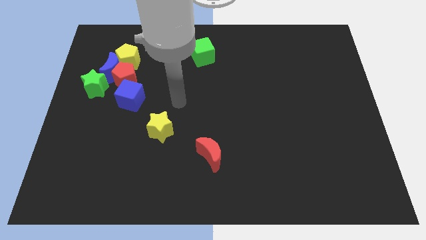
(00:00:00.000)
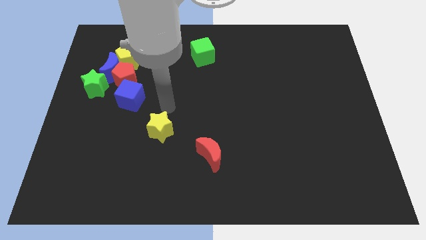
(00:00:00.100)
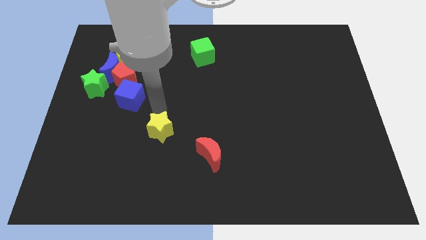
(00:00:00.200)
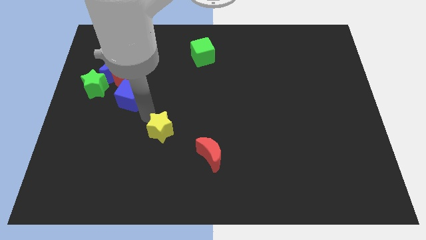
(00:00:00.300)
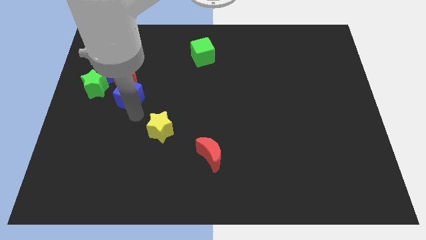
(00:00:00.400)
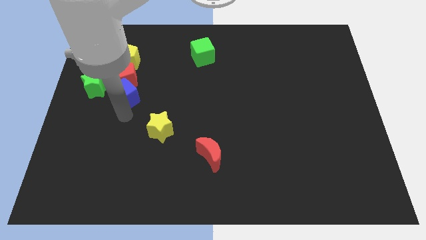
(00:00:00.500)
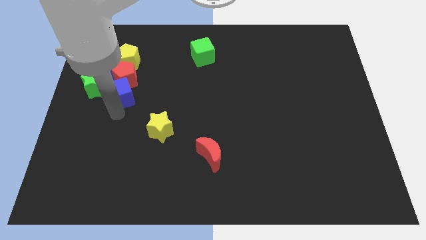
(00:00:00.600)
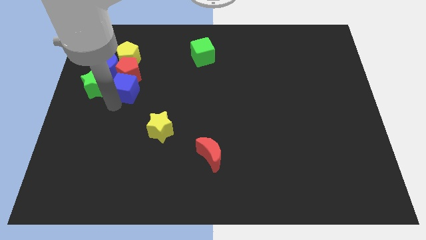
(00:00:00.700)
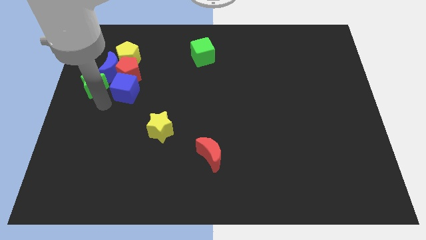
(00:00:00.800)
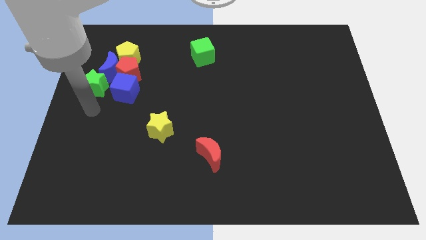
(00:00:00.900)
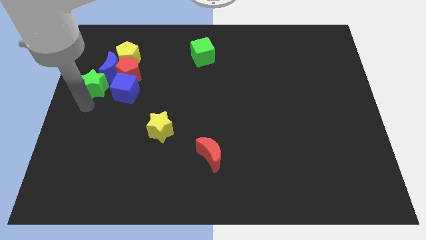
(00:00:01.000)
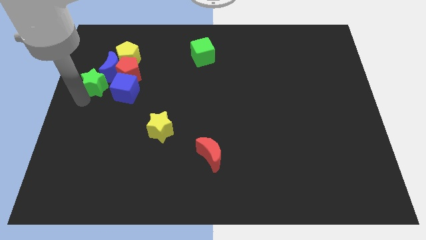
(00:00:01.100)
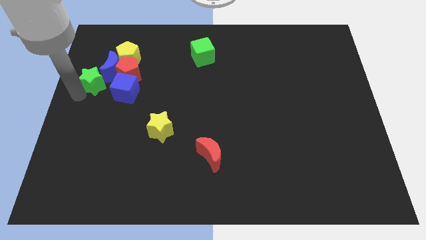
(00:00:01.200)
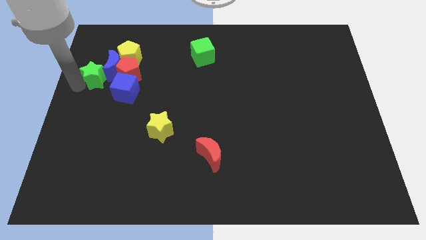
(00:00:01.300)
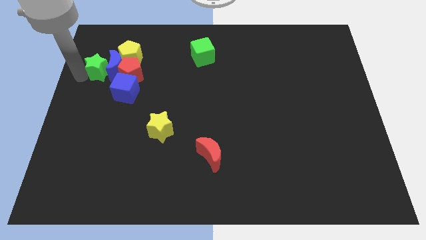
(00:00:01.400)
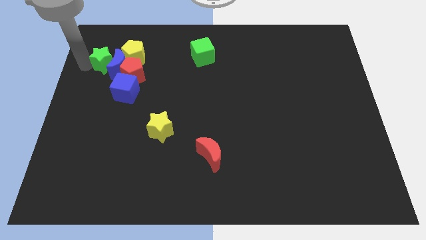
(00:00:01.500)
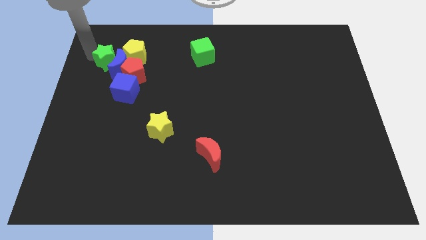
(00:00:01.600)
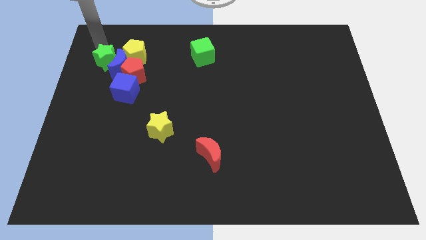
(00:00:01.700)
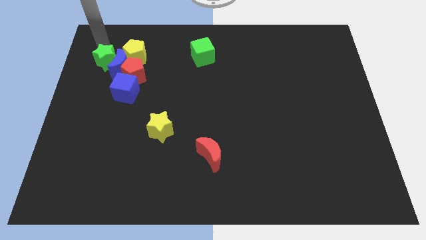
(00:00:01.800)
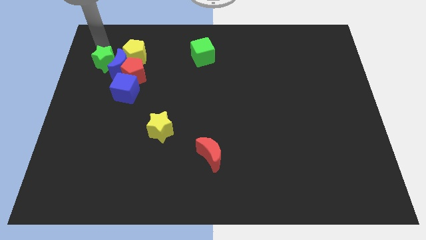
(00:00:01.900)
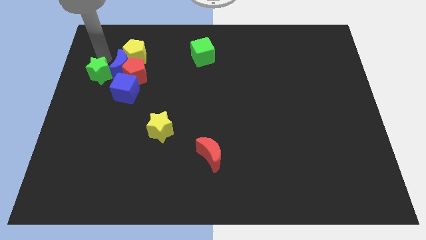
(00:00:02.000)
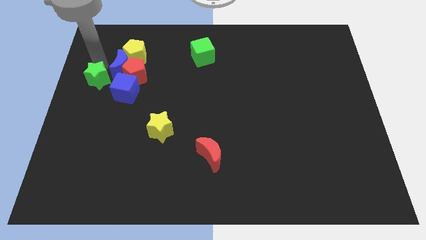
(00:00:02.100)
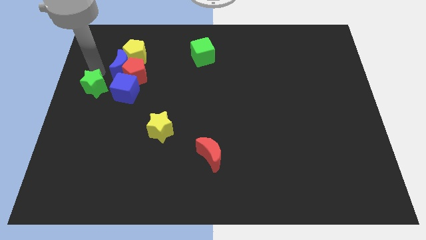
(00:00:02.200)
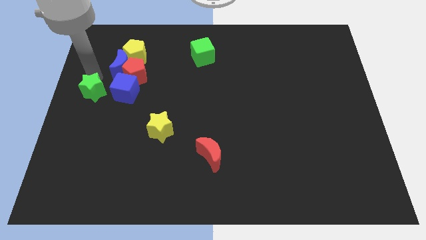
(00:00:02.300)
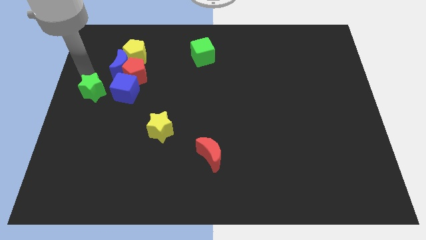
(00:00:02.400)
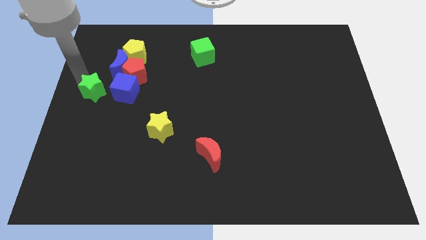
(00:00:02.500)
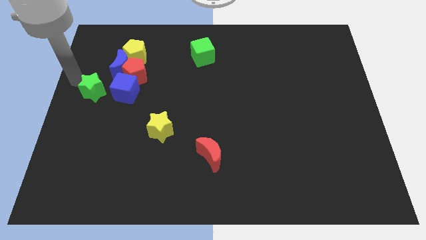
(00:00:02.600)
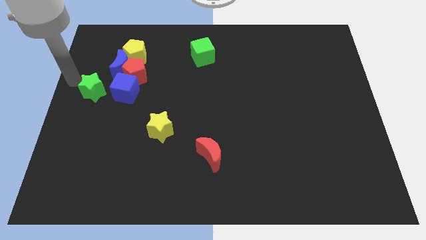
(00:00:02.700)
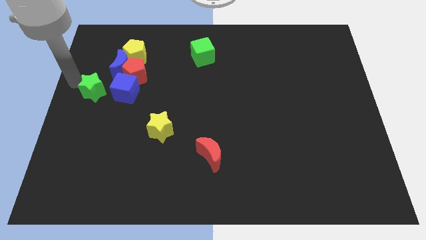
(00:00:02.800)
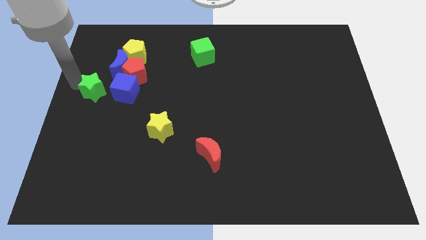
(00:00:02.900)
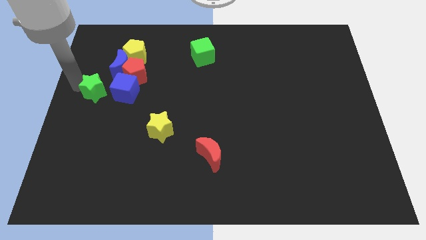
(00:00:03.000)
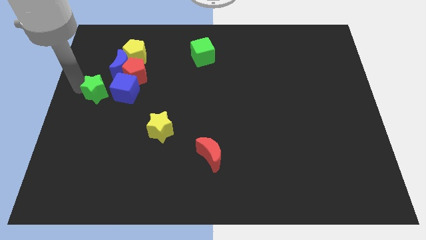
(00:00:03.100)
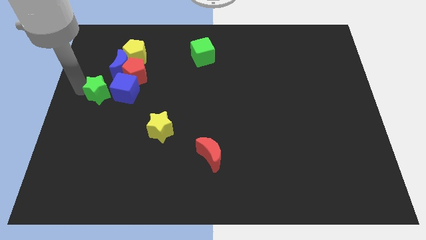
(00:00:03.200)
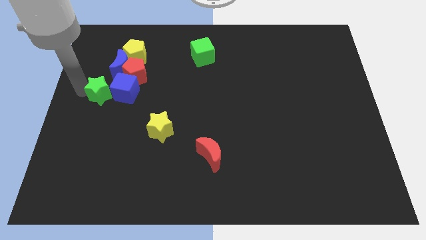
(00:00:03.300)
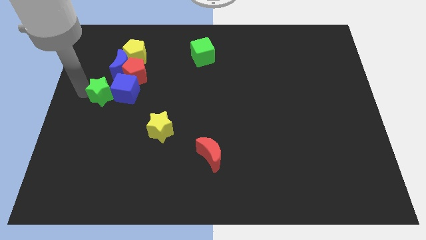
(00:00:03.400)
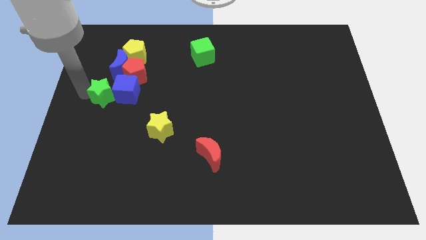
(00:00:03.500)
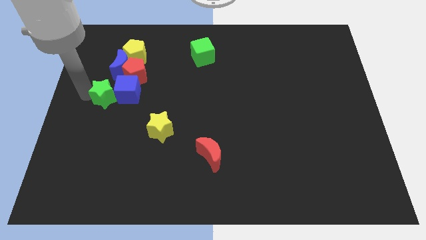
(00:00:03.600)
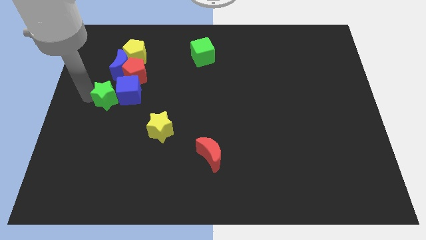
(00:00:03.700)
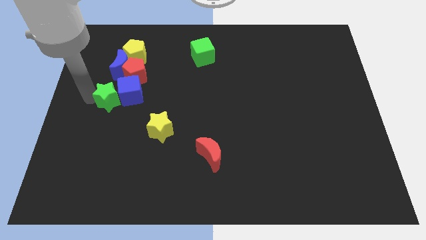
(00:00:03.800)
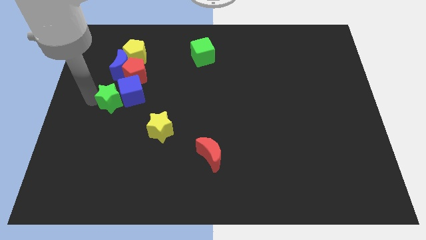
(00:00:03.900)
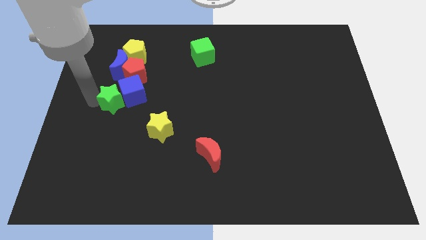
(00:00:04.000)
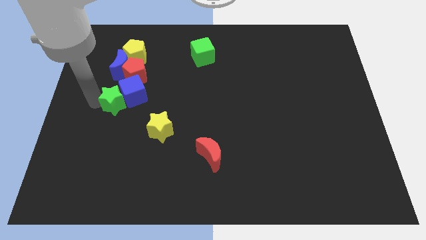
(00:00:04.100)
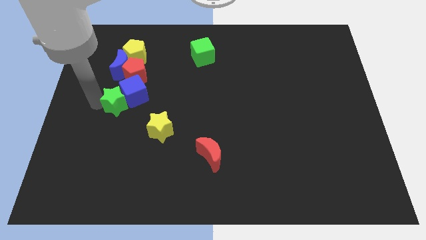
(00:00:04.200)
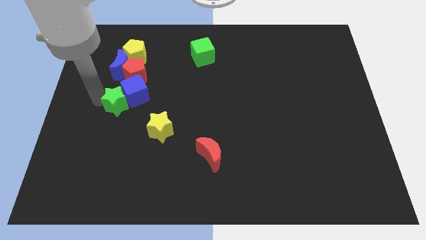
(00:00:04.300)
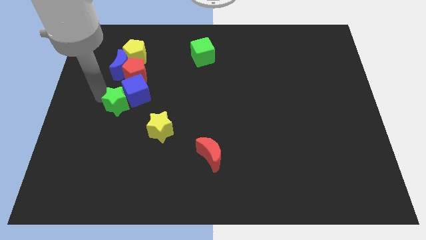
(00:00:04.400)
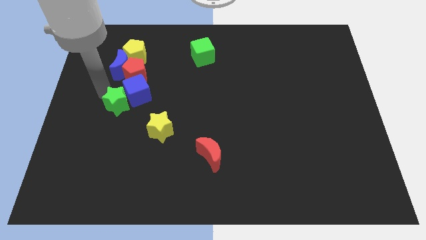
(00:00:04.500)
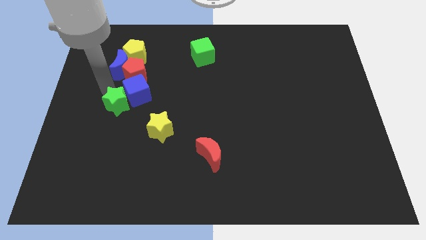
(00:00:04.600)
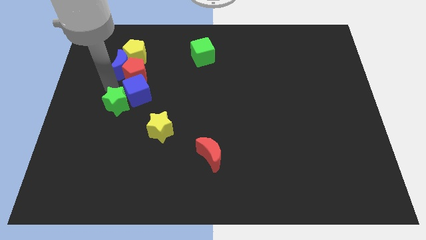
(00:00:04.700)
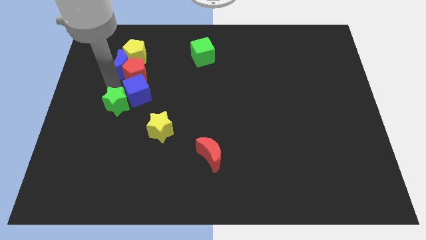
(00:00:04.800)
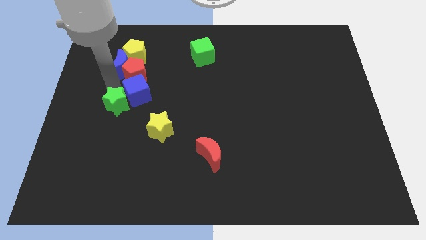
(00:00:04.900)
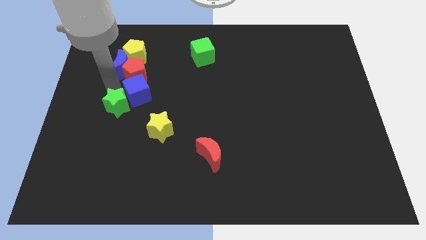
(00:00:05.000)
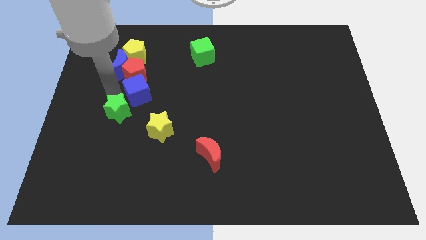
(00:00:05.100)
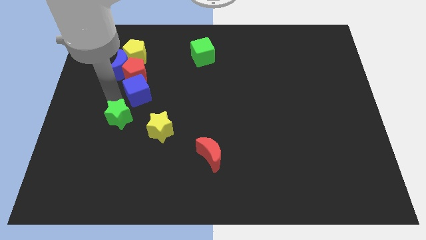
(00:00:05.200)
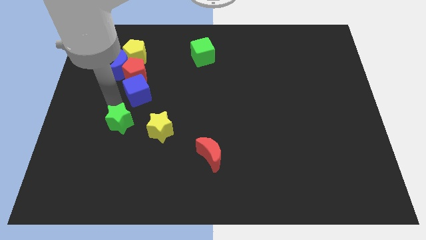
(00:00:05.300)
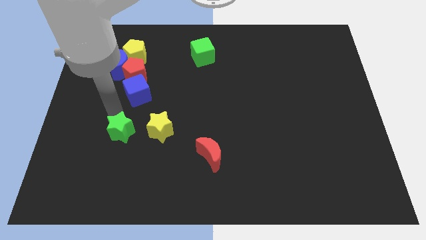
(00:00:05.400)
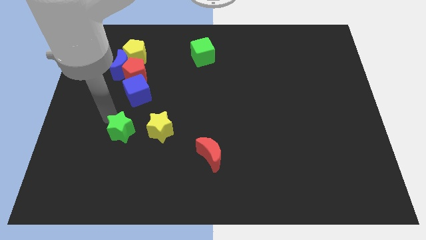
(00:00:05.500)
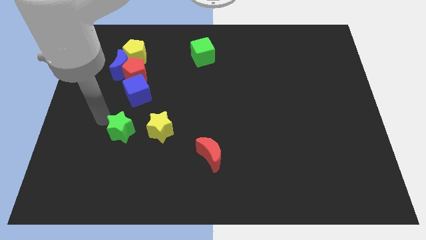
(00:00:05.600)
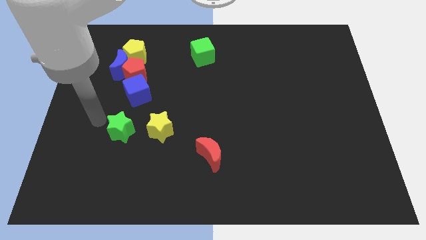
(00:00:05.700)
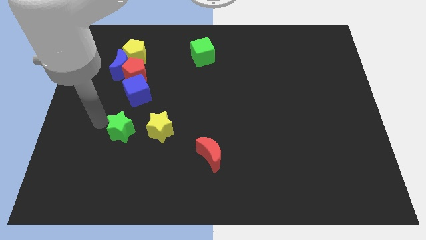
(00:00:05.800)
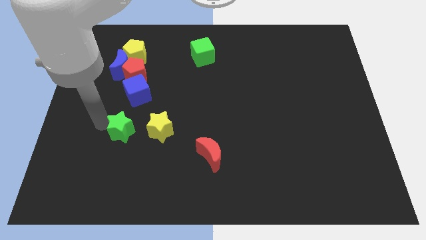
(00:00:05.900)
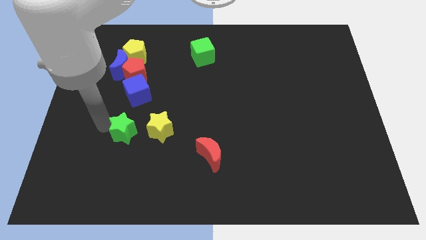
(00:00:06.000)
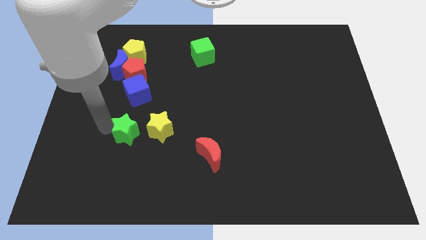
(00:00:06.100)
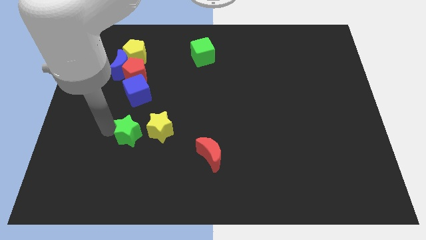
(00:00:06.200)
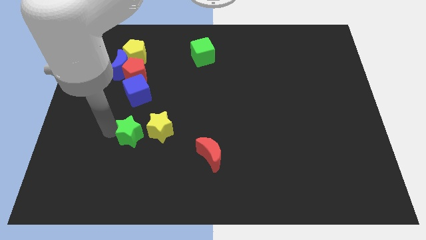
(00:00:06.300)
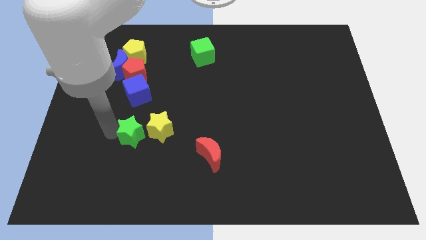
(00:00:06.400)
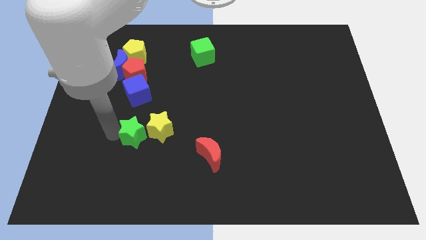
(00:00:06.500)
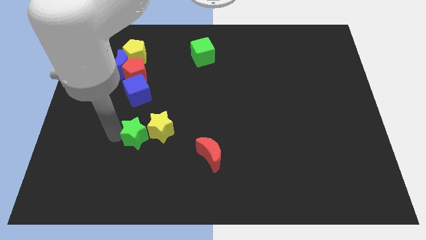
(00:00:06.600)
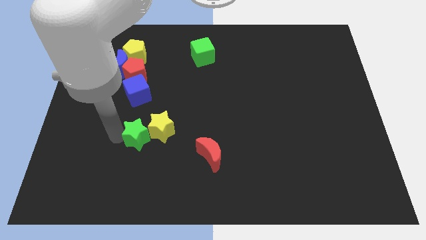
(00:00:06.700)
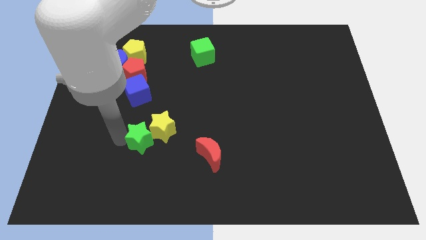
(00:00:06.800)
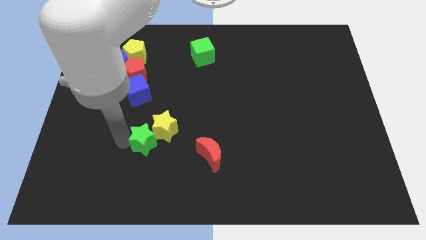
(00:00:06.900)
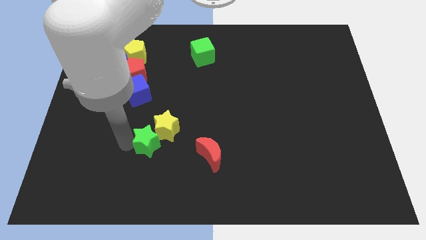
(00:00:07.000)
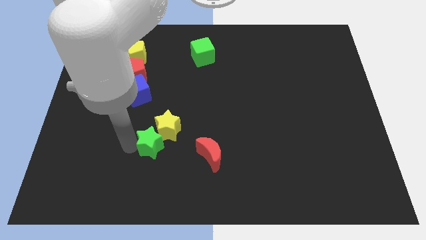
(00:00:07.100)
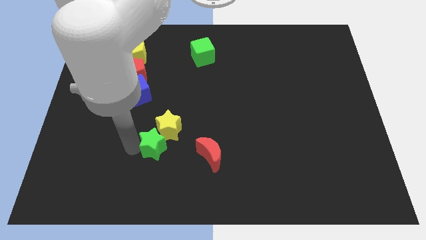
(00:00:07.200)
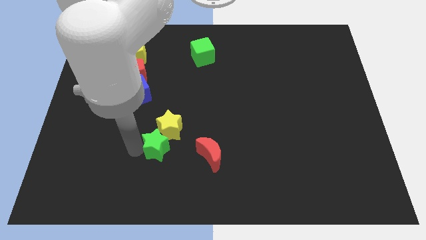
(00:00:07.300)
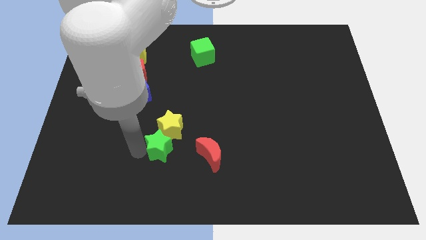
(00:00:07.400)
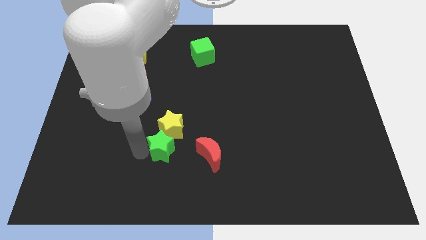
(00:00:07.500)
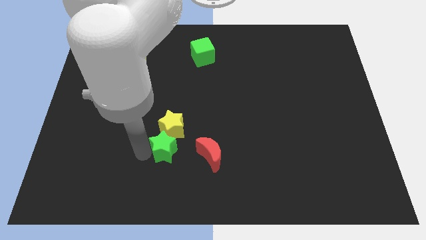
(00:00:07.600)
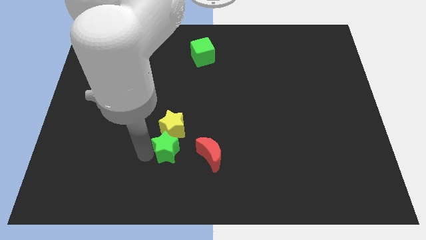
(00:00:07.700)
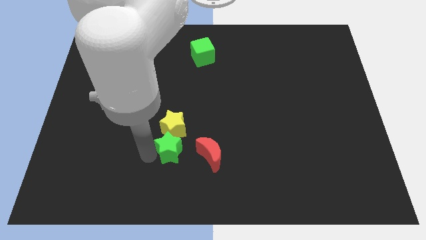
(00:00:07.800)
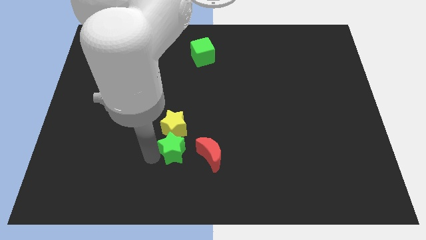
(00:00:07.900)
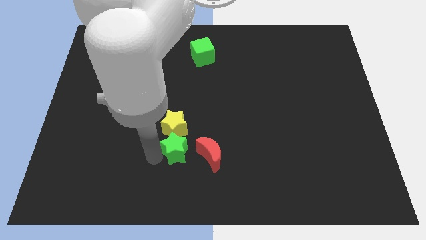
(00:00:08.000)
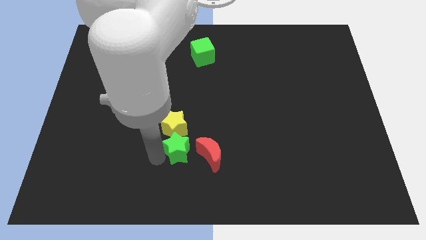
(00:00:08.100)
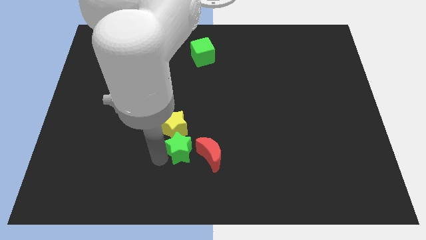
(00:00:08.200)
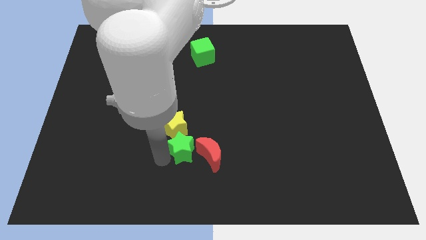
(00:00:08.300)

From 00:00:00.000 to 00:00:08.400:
slide the green star to the red moon
